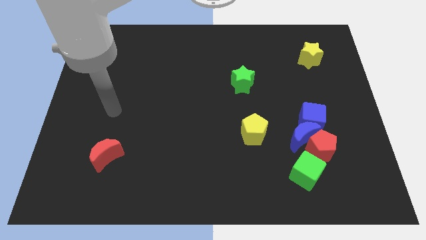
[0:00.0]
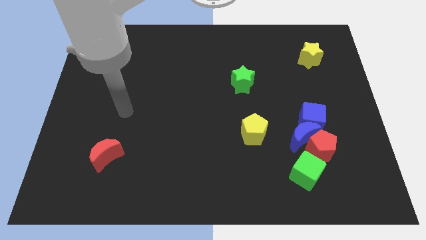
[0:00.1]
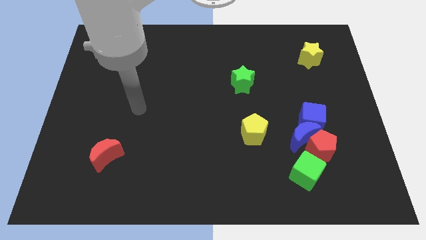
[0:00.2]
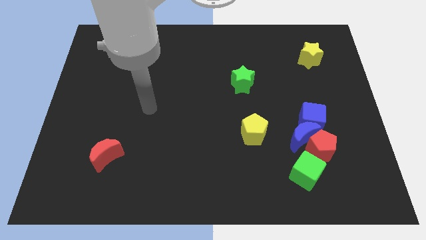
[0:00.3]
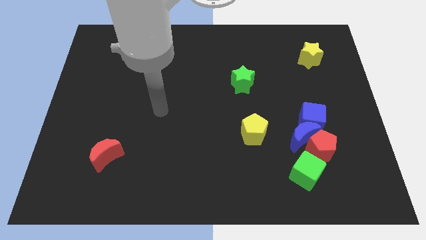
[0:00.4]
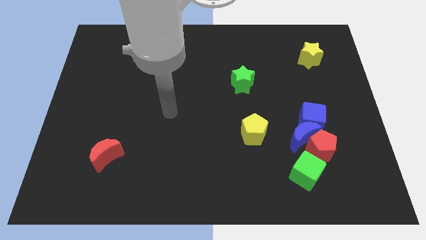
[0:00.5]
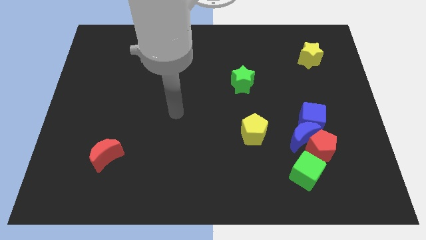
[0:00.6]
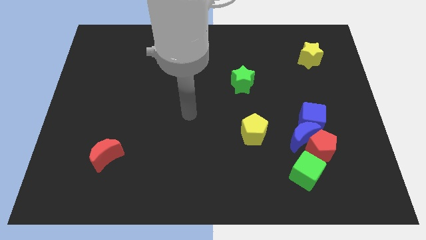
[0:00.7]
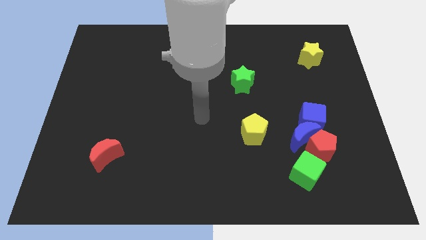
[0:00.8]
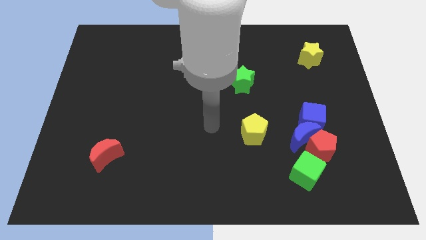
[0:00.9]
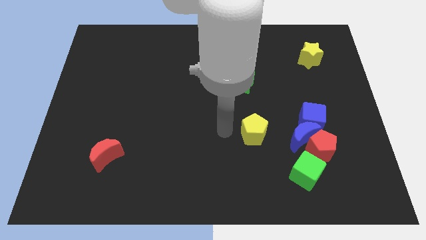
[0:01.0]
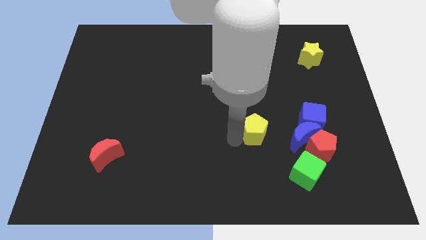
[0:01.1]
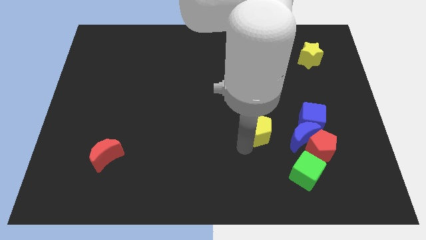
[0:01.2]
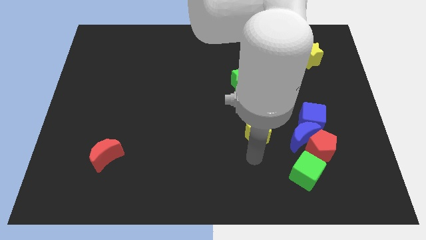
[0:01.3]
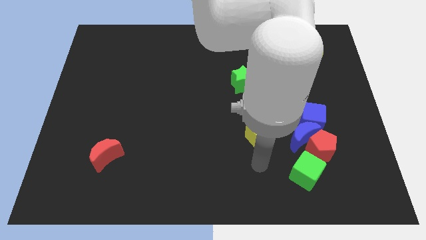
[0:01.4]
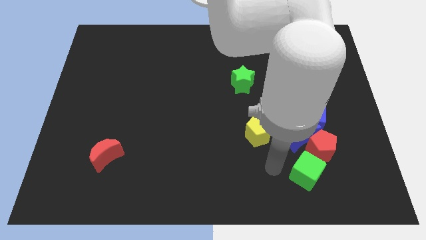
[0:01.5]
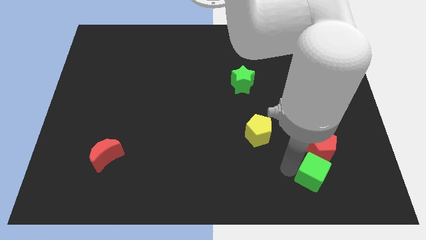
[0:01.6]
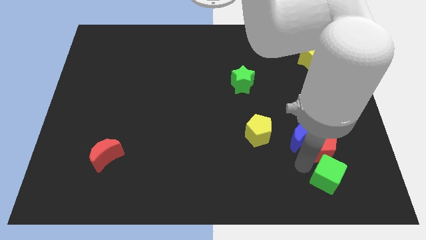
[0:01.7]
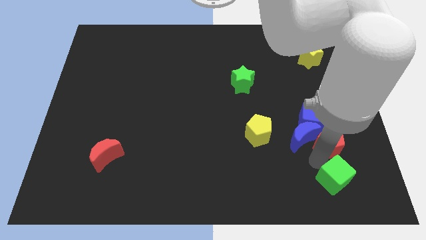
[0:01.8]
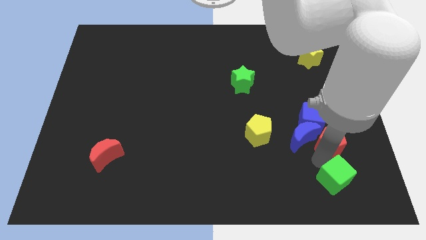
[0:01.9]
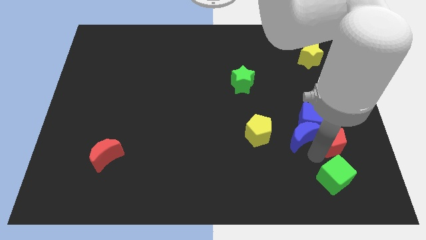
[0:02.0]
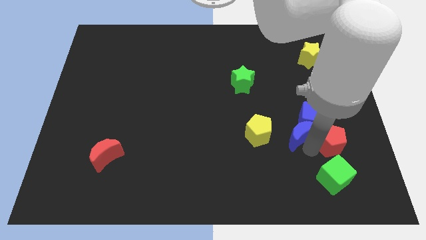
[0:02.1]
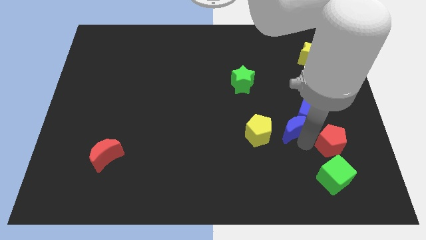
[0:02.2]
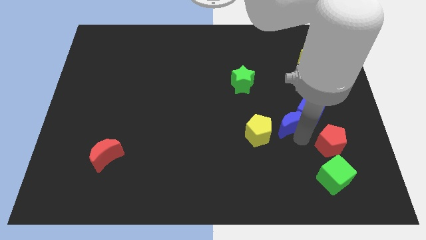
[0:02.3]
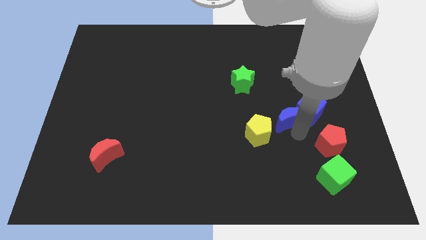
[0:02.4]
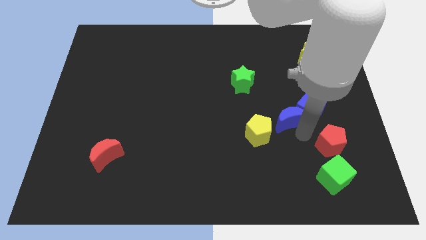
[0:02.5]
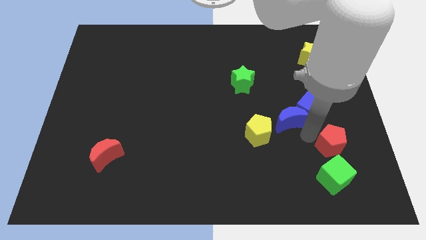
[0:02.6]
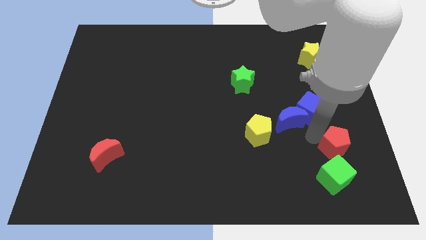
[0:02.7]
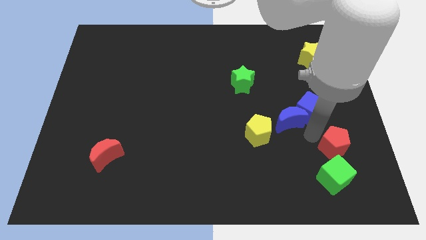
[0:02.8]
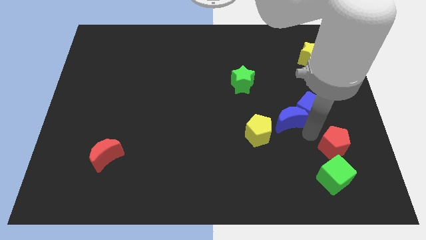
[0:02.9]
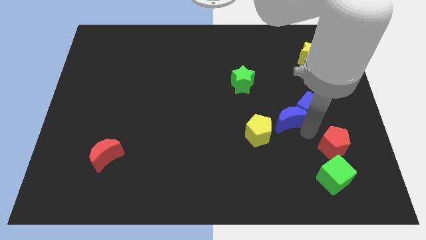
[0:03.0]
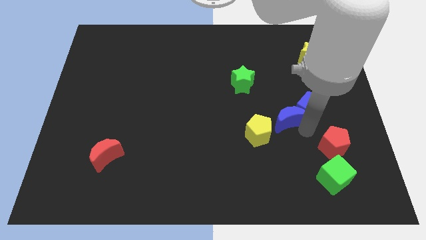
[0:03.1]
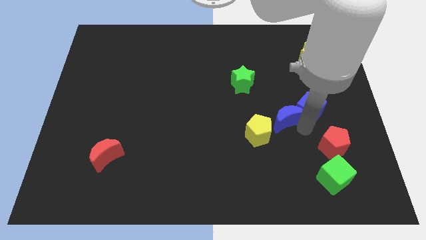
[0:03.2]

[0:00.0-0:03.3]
pull the blue moon apart from the red pentagon, blue cube, and green cube

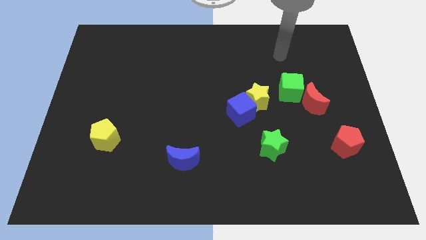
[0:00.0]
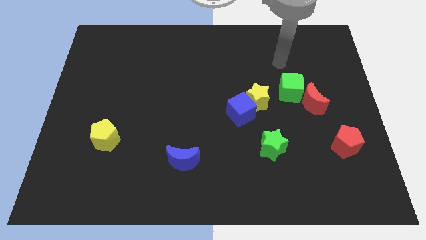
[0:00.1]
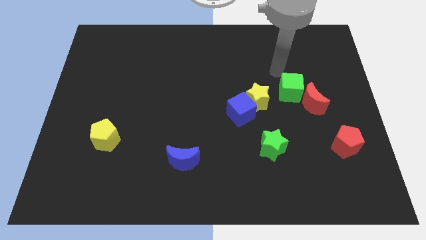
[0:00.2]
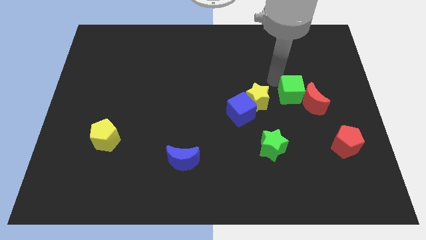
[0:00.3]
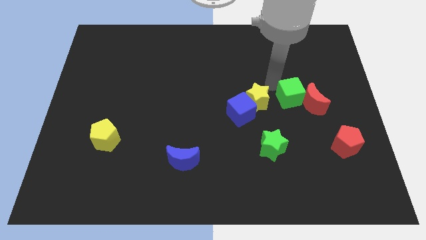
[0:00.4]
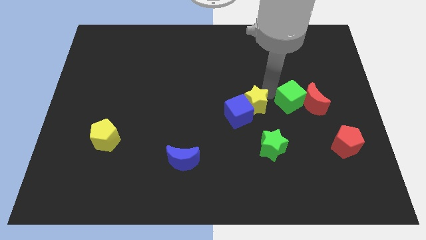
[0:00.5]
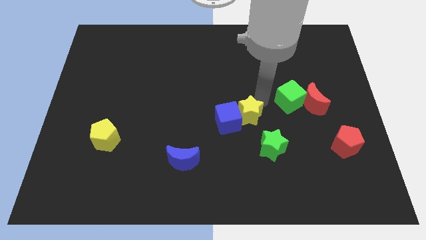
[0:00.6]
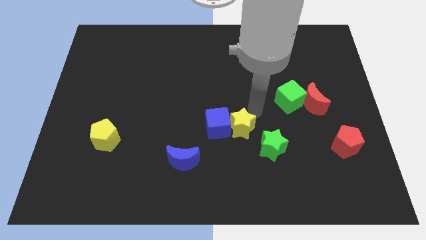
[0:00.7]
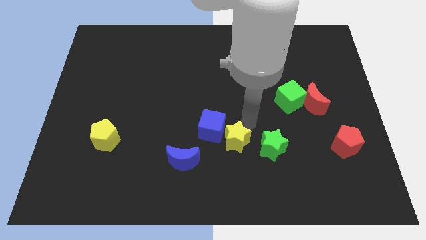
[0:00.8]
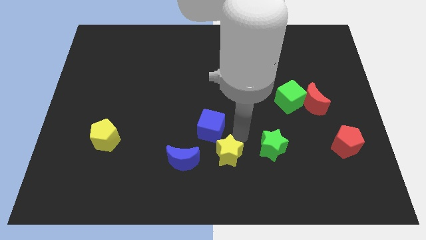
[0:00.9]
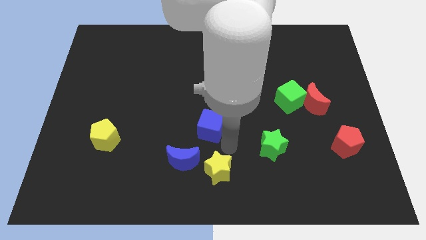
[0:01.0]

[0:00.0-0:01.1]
pull the blue cube apart from the yellow star

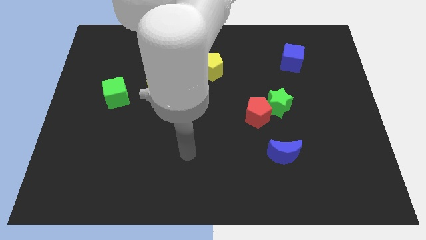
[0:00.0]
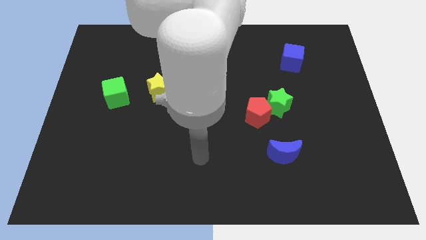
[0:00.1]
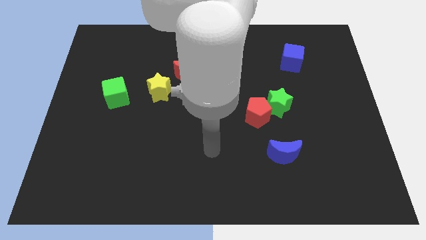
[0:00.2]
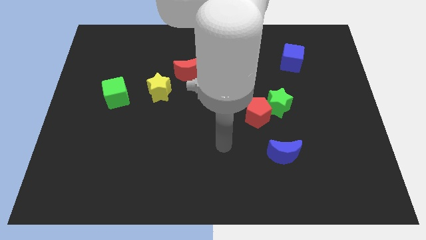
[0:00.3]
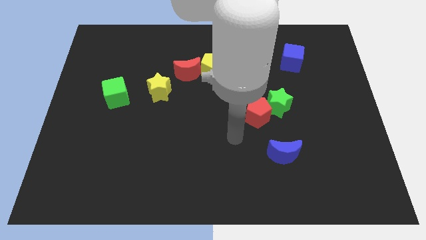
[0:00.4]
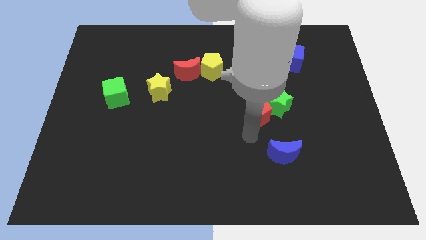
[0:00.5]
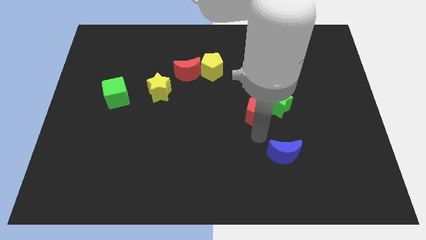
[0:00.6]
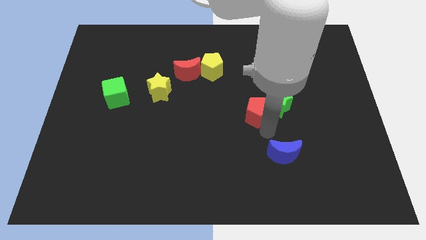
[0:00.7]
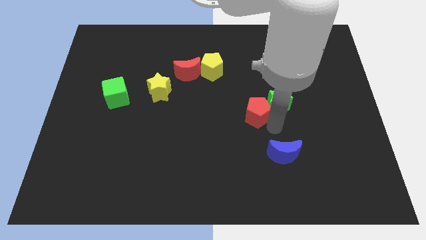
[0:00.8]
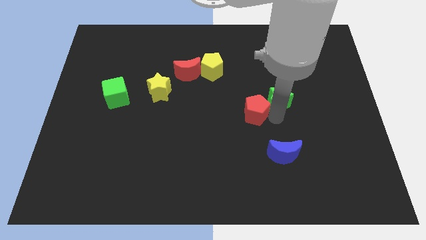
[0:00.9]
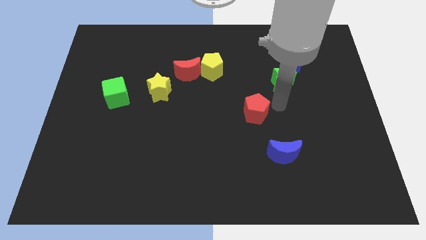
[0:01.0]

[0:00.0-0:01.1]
pull the red pentagon apart from the green star

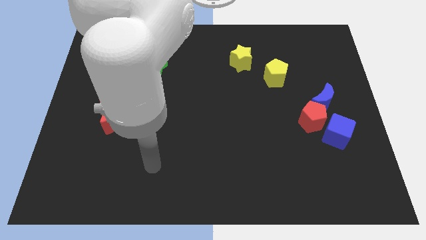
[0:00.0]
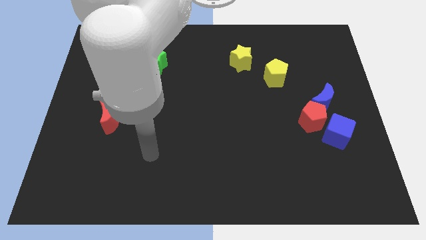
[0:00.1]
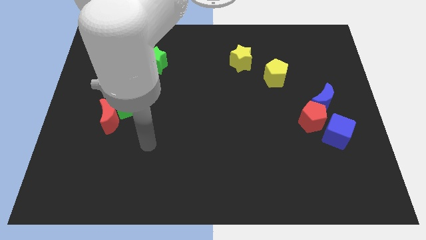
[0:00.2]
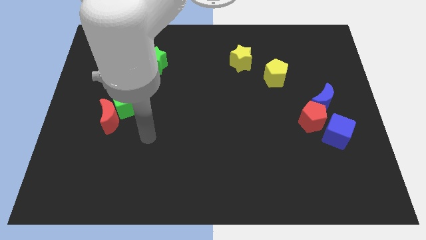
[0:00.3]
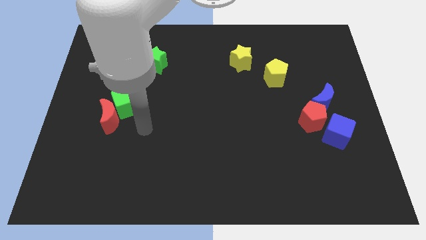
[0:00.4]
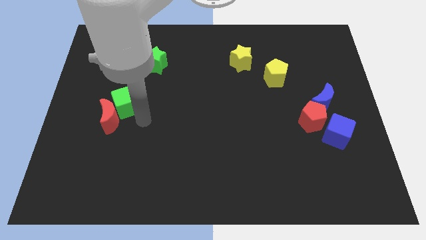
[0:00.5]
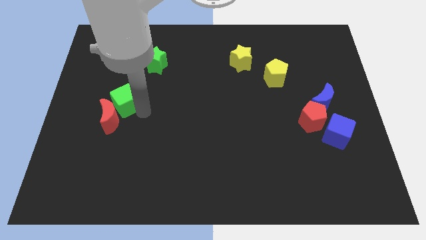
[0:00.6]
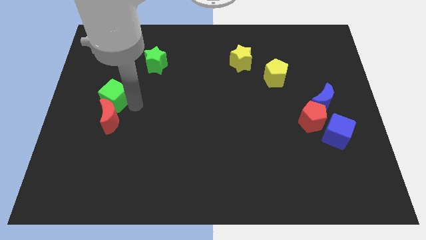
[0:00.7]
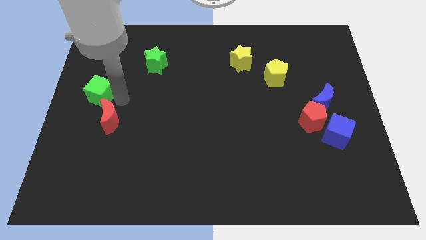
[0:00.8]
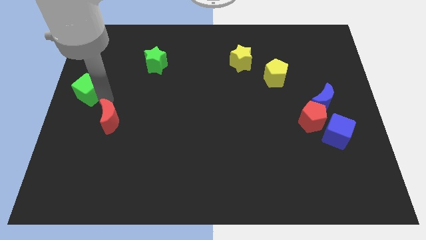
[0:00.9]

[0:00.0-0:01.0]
separate the red moon from the green cube

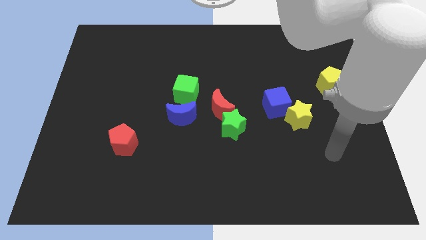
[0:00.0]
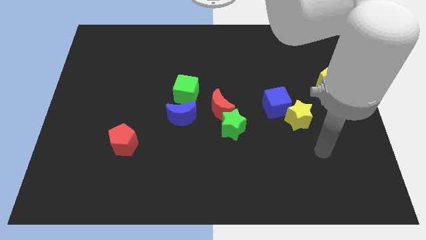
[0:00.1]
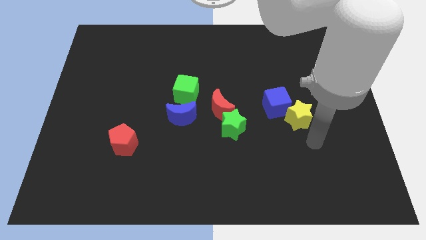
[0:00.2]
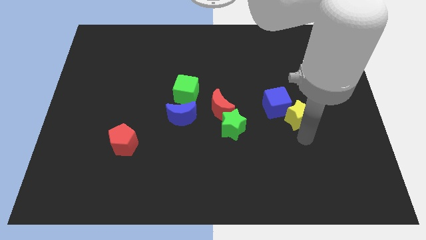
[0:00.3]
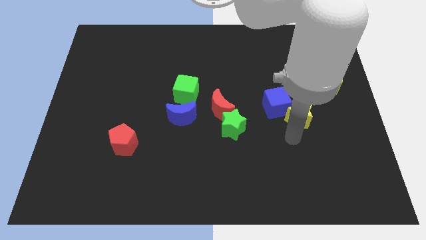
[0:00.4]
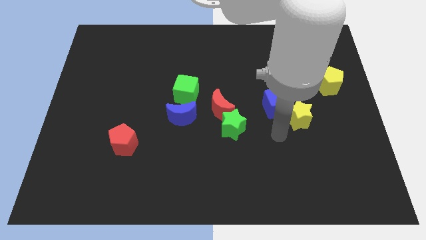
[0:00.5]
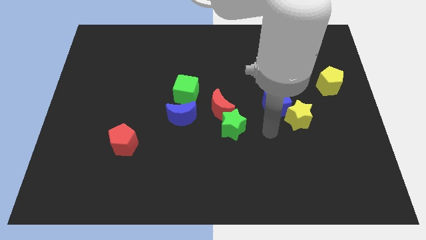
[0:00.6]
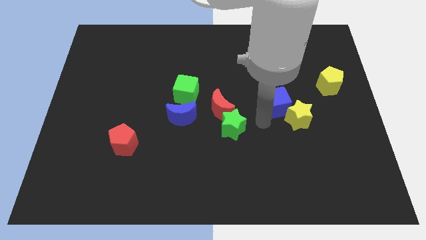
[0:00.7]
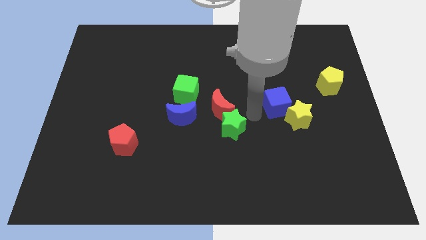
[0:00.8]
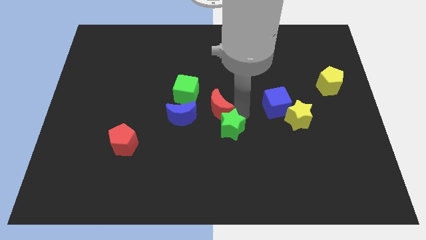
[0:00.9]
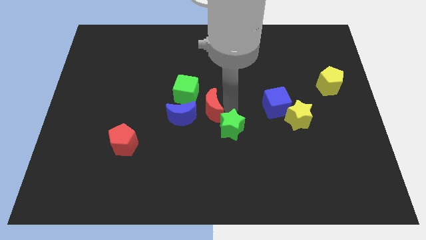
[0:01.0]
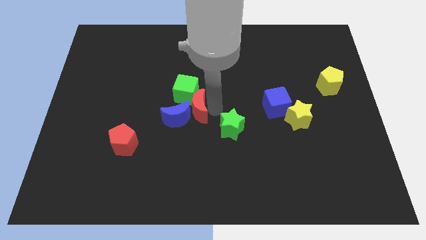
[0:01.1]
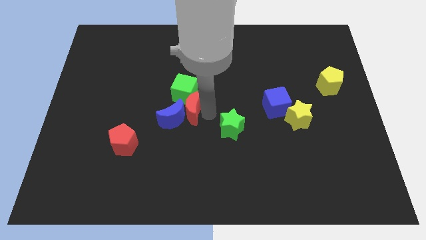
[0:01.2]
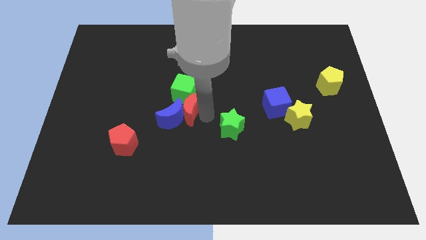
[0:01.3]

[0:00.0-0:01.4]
separate the green star from the red moon

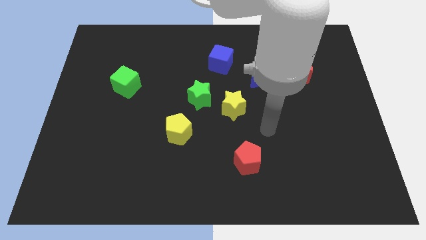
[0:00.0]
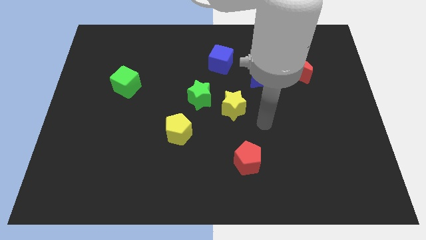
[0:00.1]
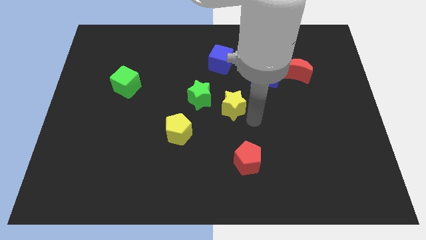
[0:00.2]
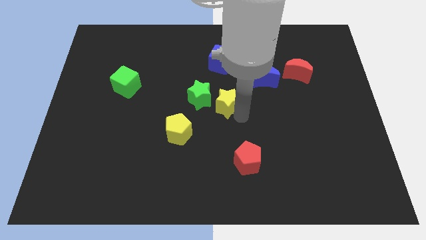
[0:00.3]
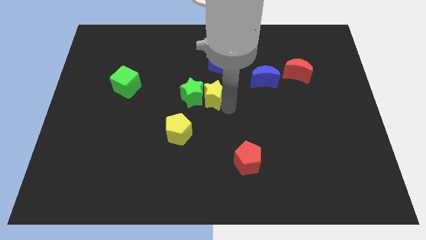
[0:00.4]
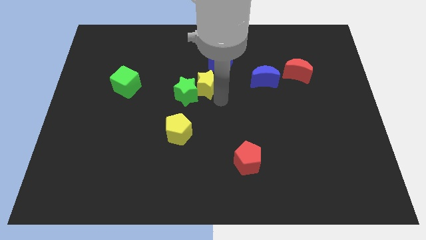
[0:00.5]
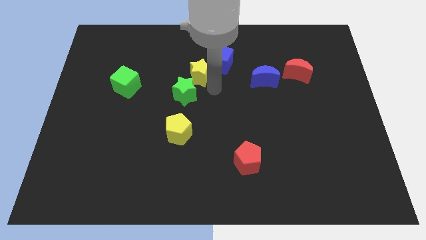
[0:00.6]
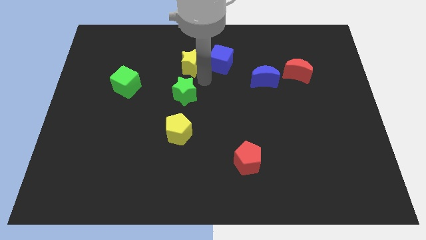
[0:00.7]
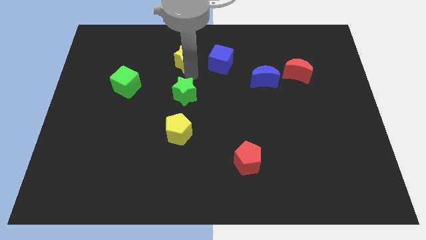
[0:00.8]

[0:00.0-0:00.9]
pull the green star apart from the yellow star

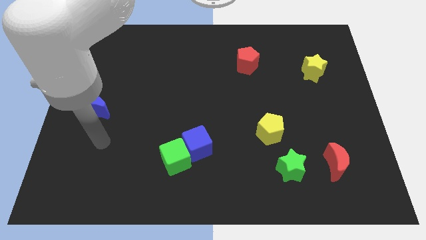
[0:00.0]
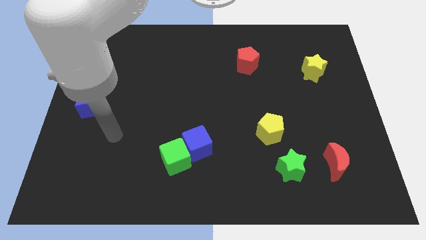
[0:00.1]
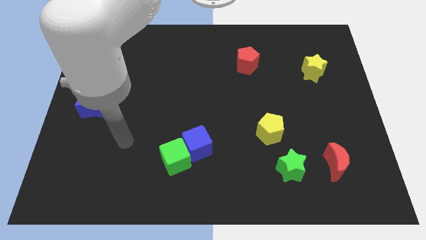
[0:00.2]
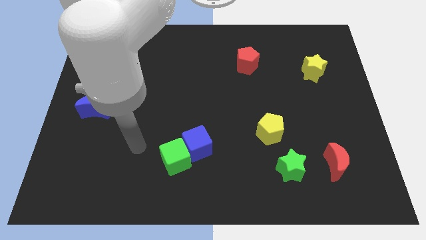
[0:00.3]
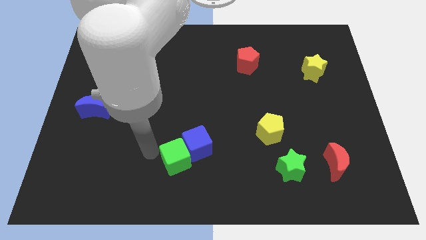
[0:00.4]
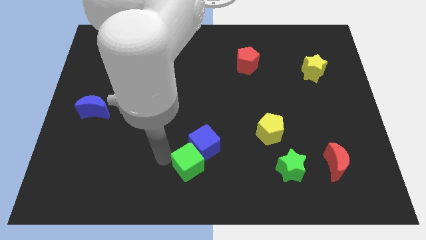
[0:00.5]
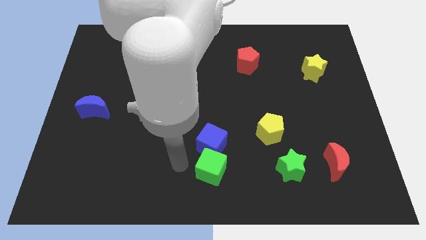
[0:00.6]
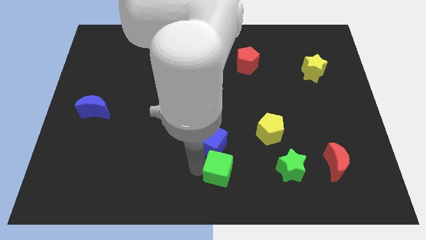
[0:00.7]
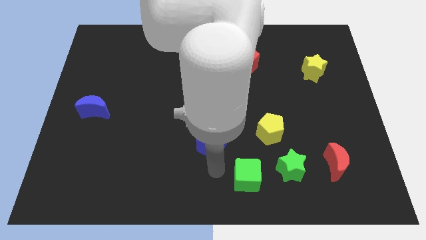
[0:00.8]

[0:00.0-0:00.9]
separate the blue cube from the green cube
